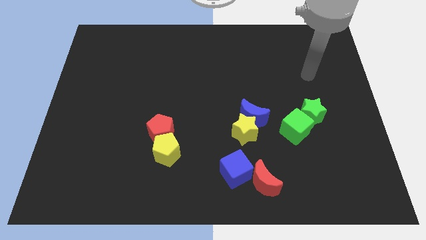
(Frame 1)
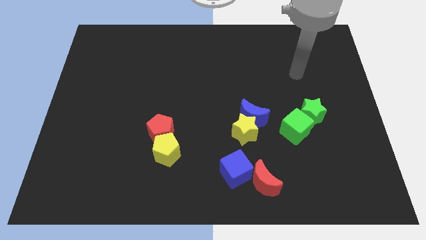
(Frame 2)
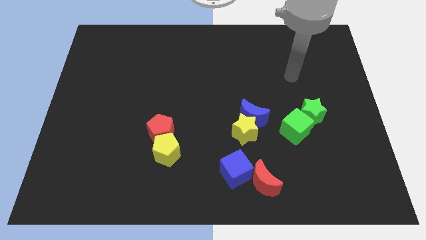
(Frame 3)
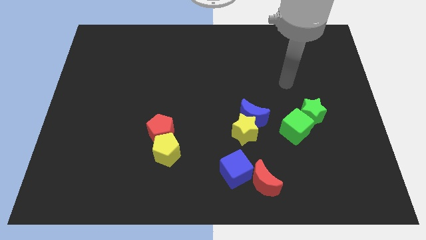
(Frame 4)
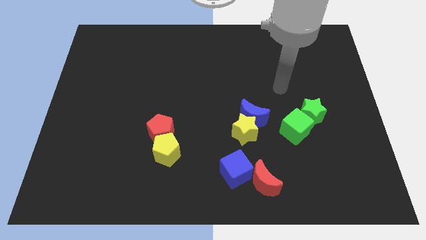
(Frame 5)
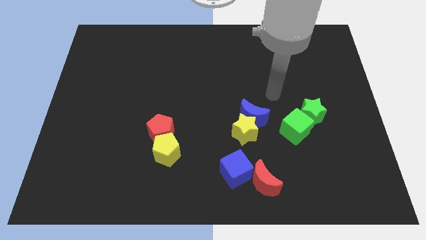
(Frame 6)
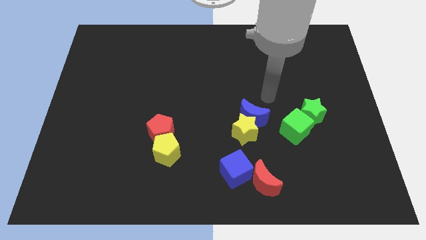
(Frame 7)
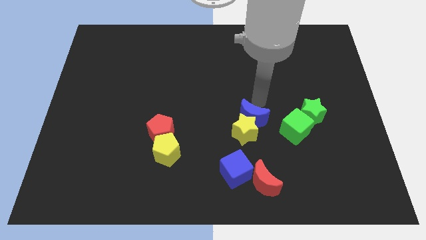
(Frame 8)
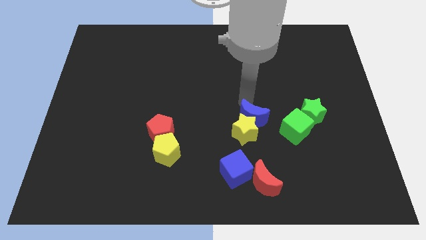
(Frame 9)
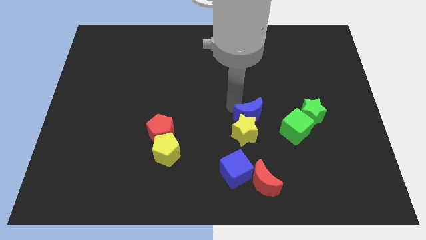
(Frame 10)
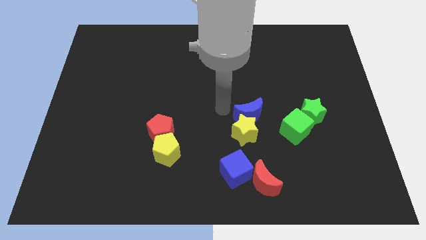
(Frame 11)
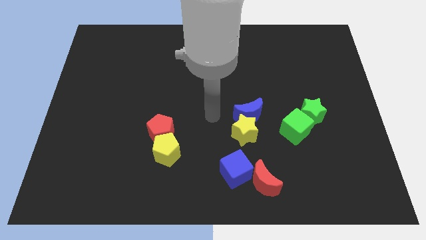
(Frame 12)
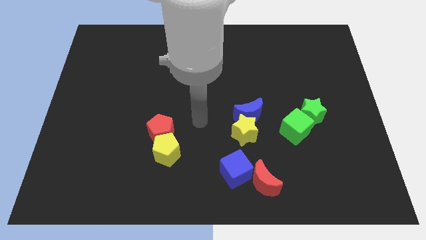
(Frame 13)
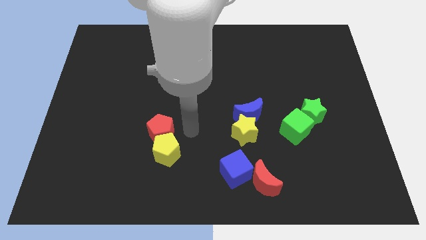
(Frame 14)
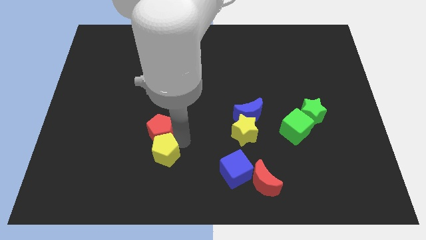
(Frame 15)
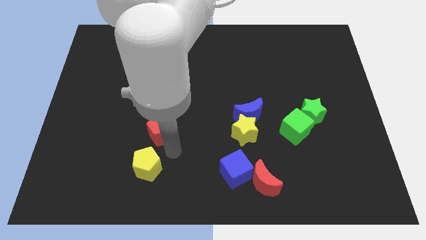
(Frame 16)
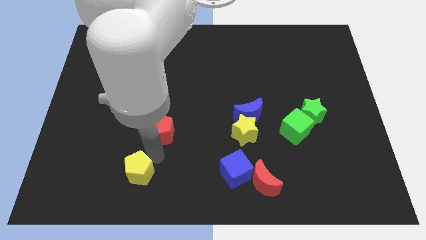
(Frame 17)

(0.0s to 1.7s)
separate the red pentagon from the yellow pentagon

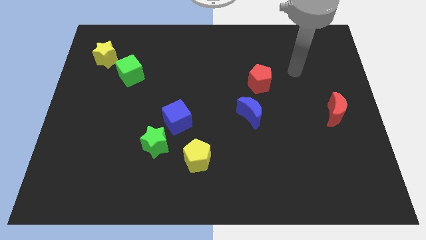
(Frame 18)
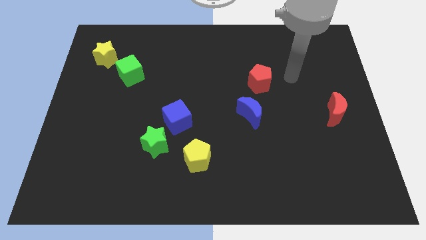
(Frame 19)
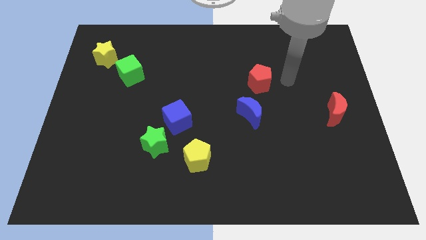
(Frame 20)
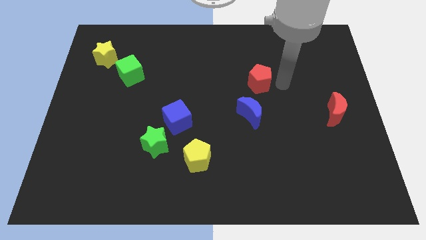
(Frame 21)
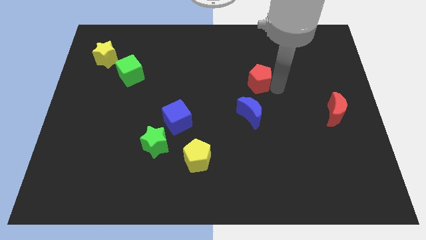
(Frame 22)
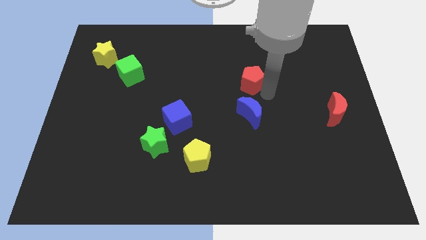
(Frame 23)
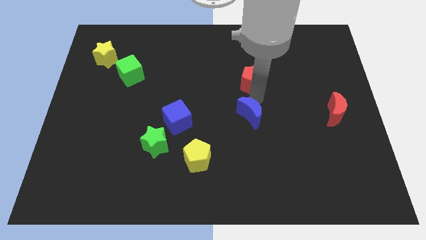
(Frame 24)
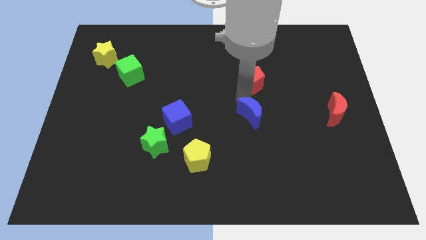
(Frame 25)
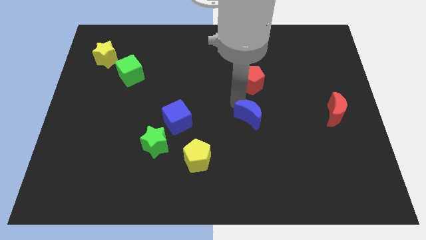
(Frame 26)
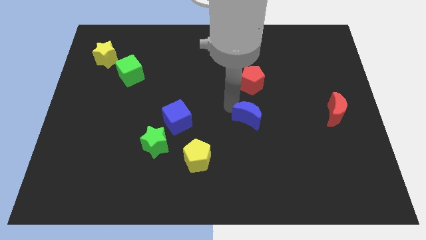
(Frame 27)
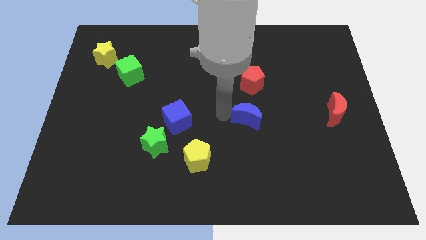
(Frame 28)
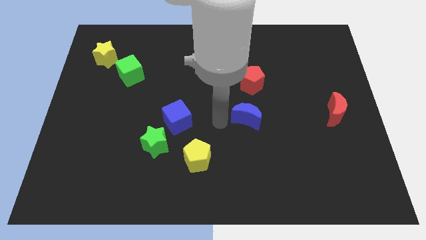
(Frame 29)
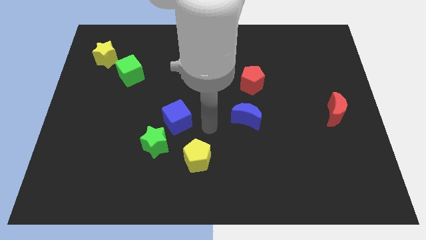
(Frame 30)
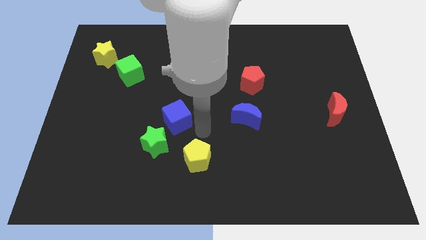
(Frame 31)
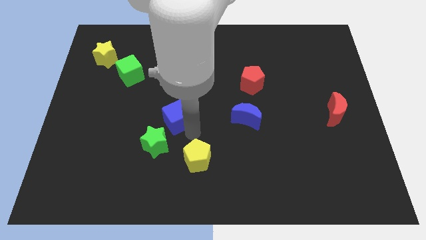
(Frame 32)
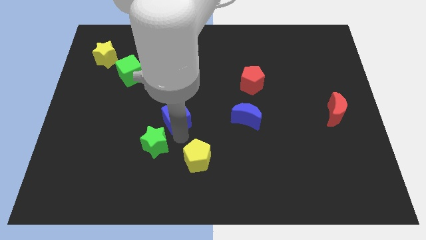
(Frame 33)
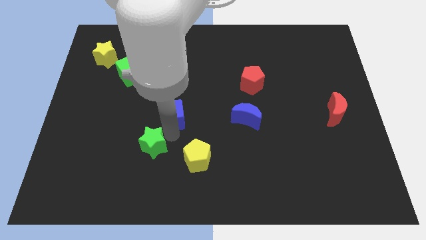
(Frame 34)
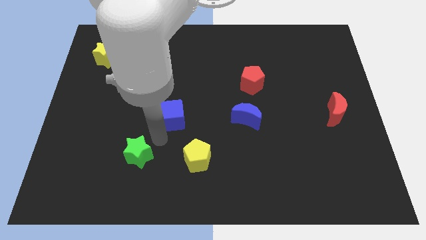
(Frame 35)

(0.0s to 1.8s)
move the blue cube away from the green star

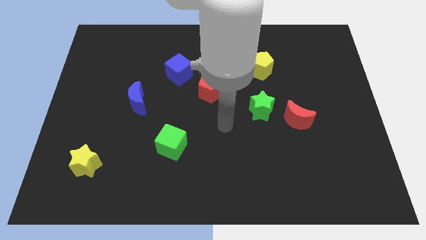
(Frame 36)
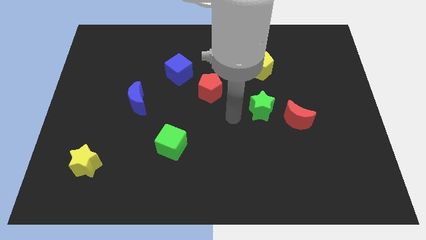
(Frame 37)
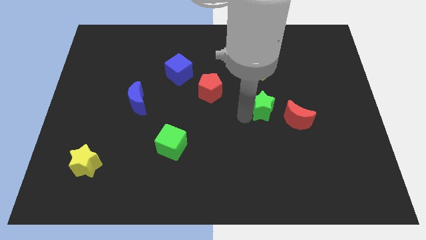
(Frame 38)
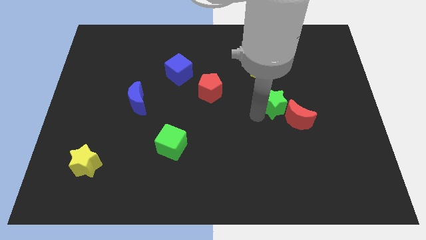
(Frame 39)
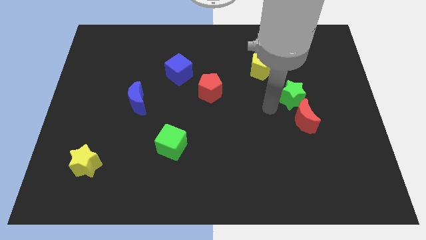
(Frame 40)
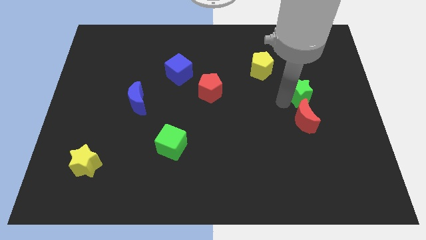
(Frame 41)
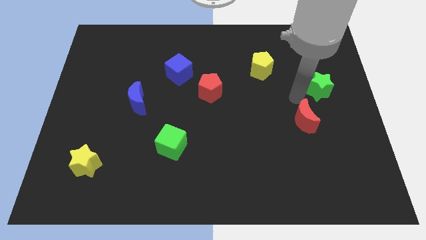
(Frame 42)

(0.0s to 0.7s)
separate the red moon from the green star

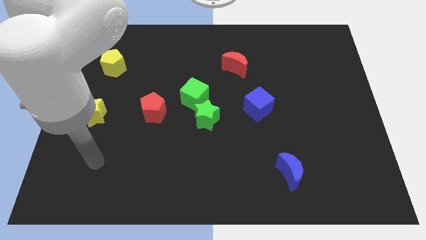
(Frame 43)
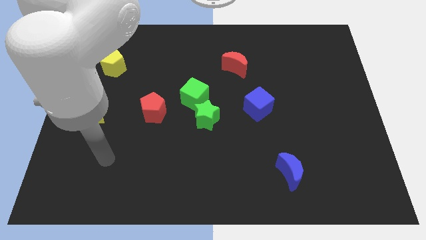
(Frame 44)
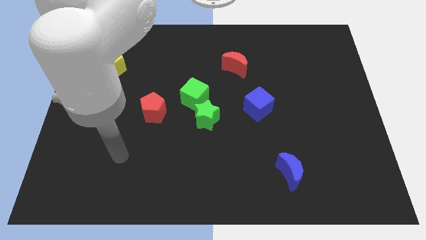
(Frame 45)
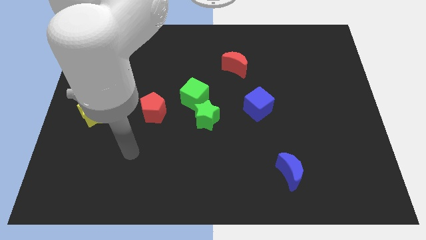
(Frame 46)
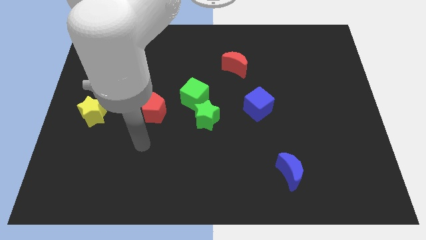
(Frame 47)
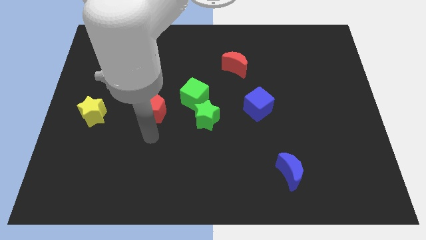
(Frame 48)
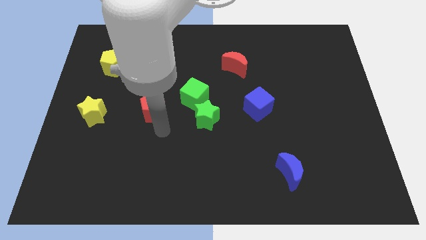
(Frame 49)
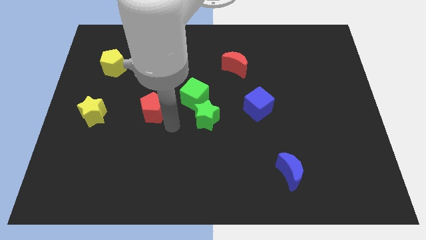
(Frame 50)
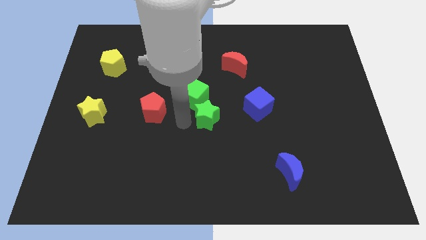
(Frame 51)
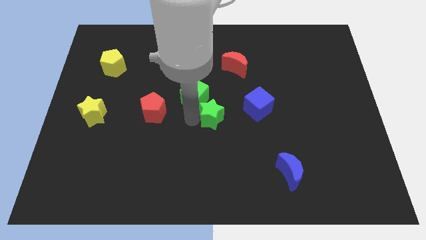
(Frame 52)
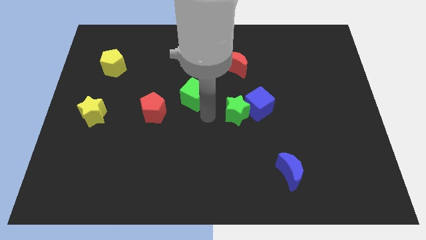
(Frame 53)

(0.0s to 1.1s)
separate the green cube from the green star

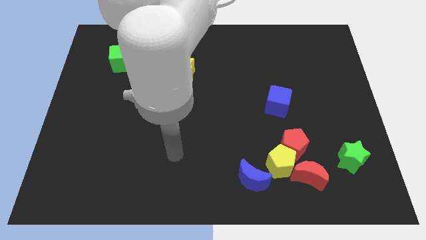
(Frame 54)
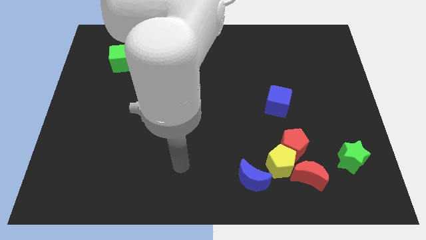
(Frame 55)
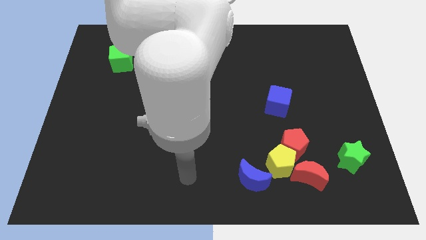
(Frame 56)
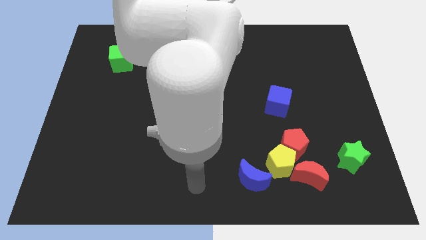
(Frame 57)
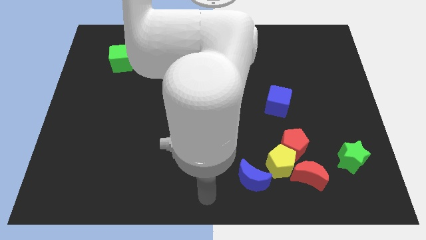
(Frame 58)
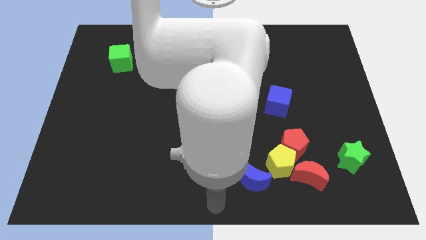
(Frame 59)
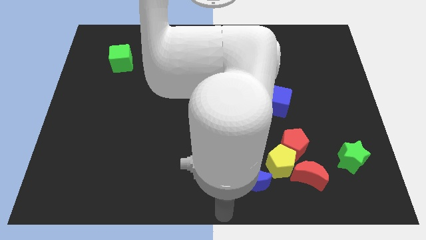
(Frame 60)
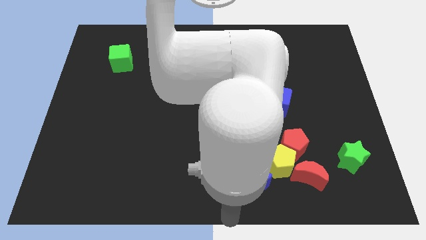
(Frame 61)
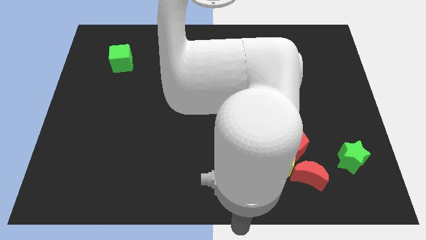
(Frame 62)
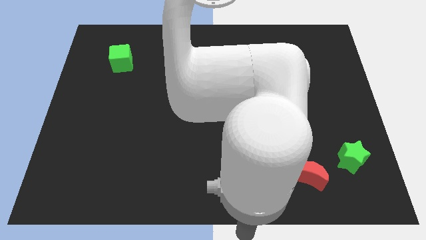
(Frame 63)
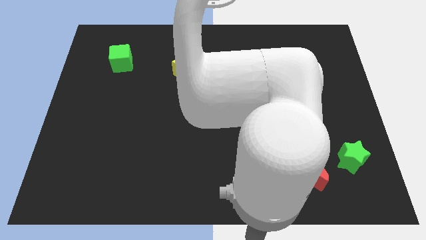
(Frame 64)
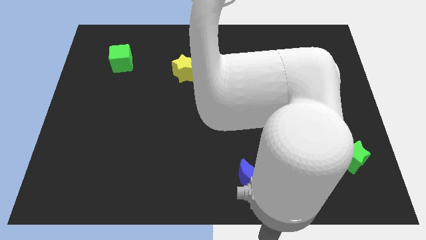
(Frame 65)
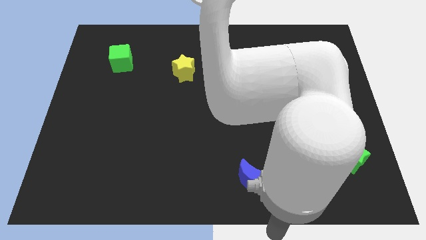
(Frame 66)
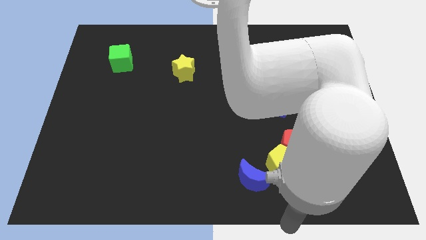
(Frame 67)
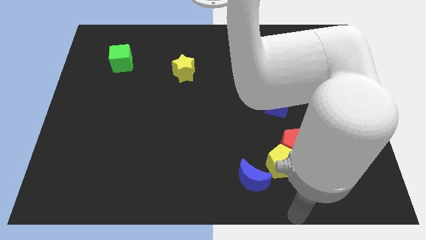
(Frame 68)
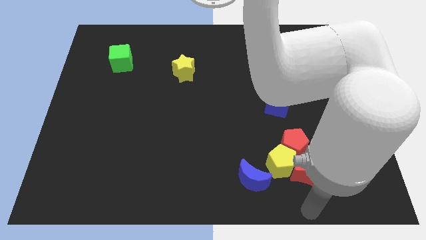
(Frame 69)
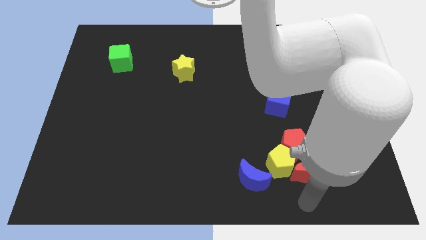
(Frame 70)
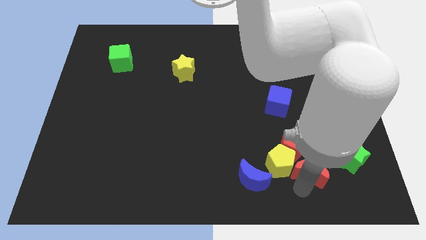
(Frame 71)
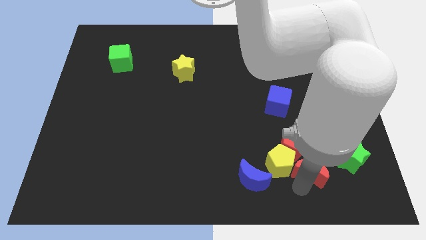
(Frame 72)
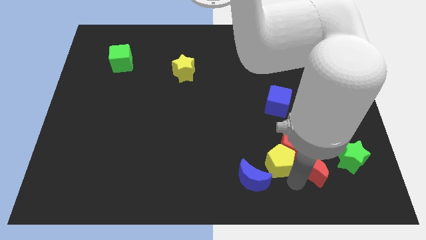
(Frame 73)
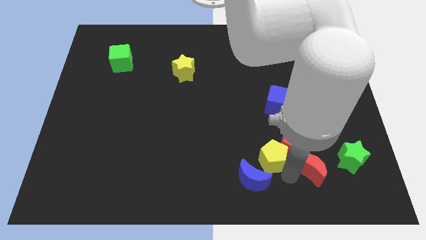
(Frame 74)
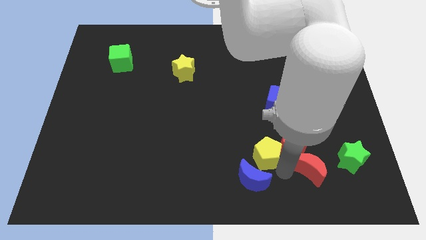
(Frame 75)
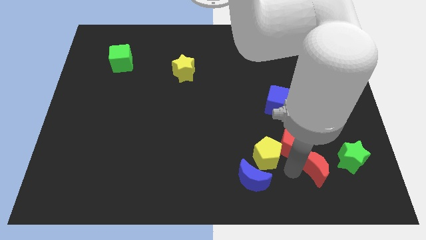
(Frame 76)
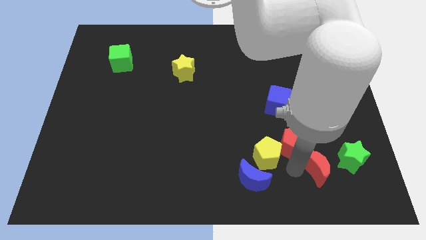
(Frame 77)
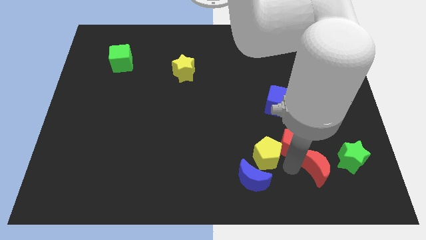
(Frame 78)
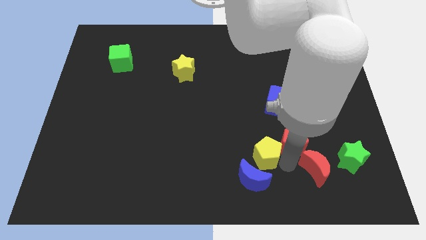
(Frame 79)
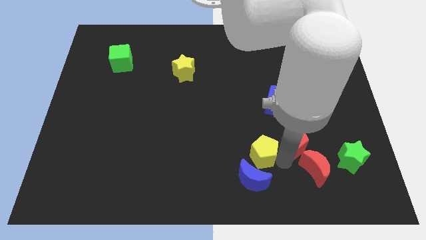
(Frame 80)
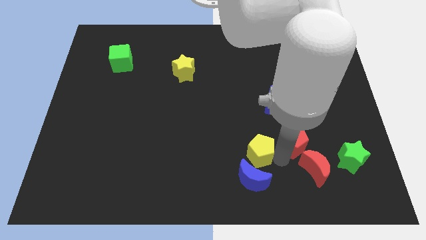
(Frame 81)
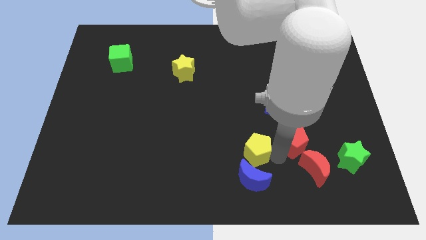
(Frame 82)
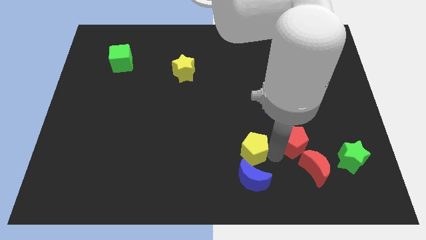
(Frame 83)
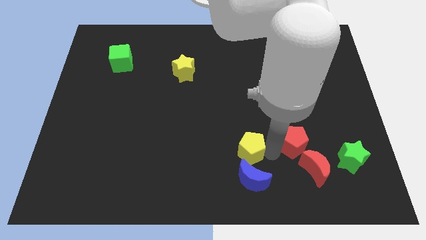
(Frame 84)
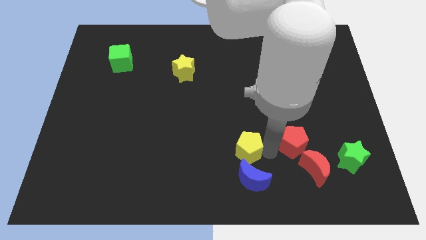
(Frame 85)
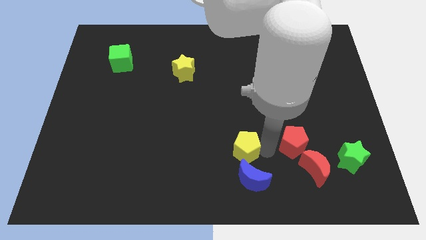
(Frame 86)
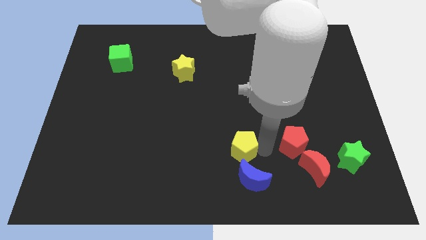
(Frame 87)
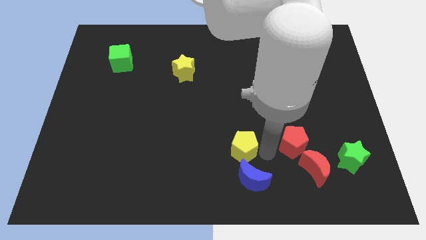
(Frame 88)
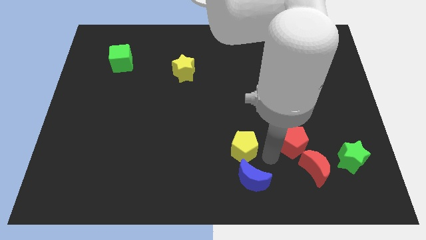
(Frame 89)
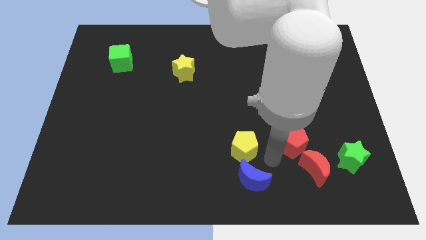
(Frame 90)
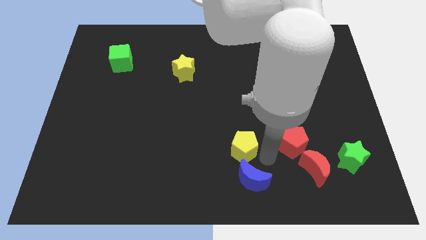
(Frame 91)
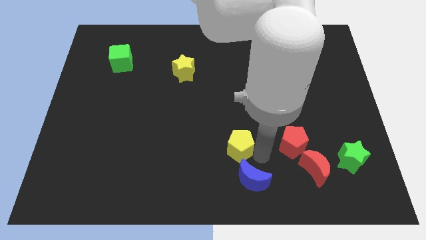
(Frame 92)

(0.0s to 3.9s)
move the yellow pentagon away from the red pentagon, red moon, and blue moon
